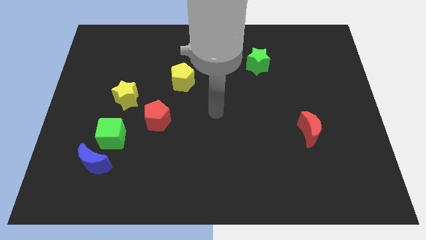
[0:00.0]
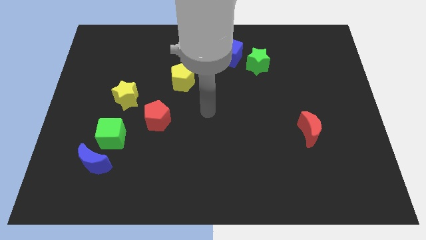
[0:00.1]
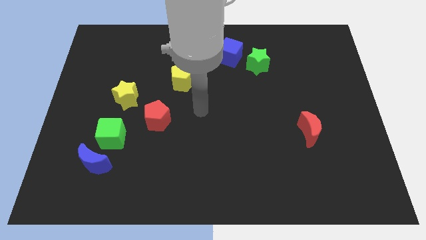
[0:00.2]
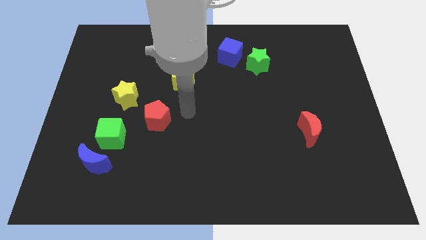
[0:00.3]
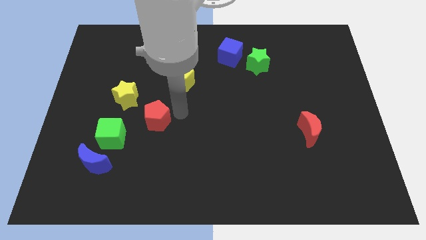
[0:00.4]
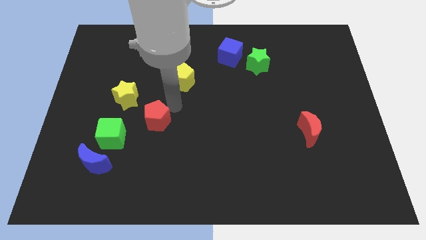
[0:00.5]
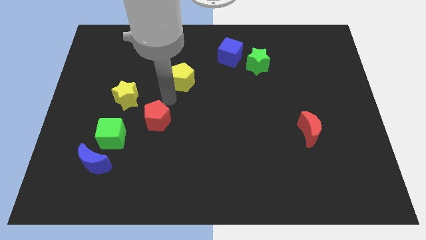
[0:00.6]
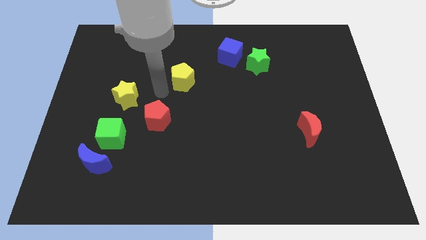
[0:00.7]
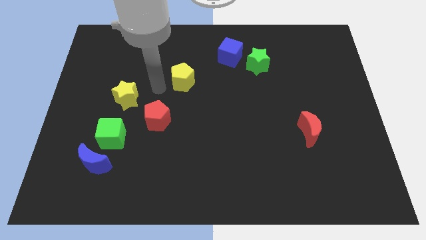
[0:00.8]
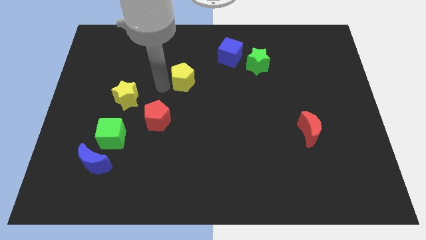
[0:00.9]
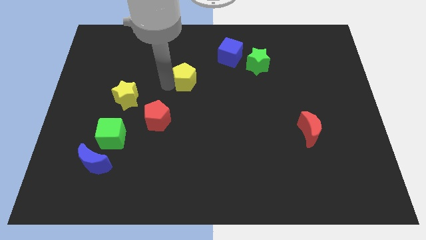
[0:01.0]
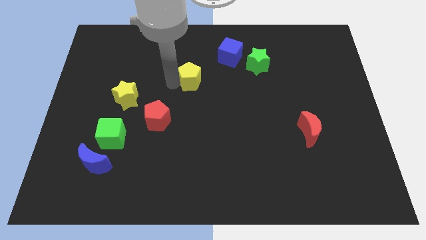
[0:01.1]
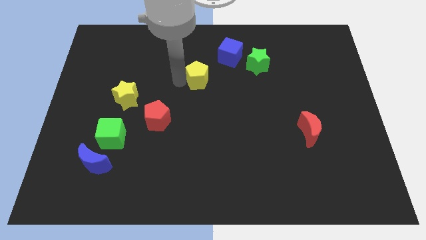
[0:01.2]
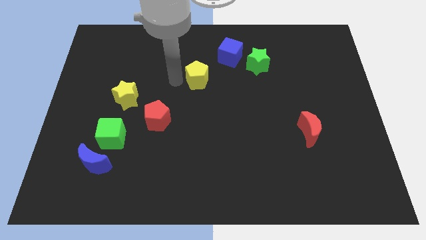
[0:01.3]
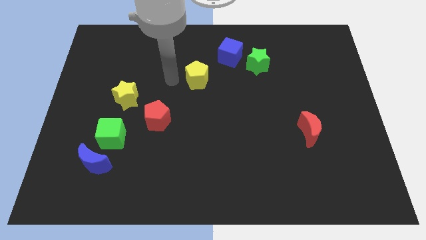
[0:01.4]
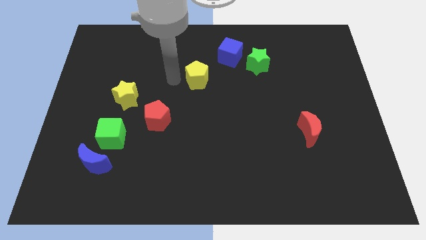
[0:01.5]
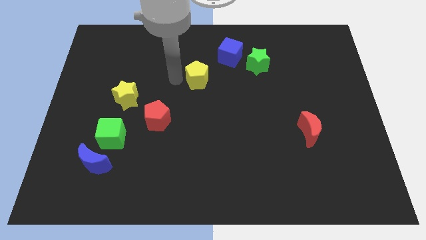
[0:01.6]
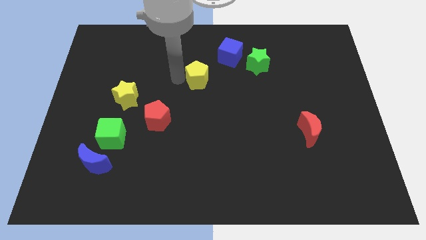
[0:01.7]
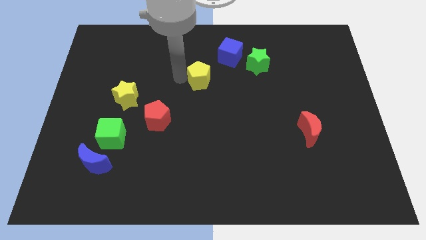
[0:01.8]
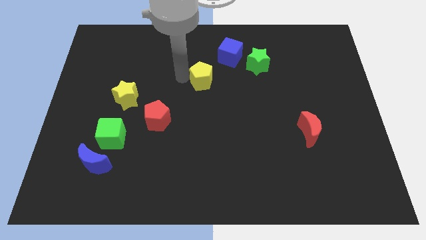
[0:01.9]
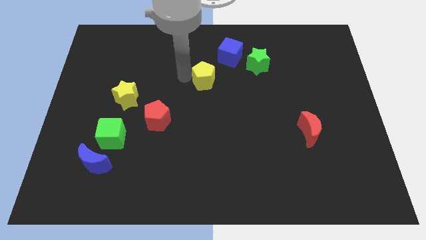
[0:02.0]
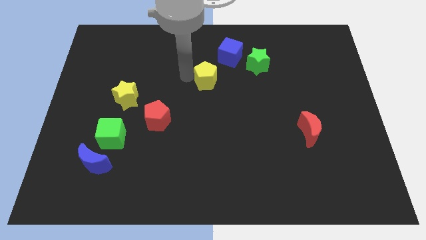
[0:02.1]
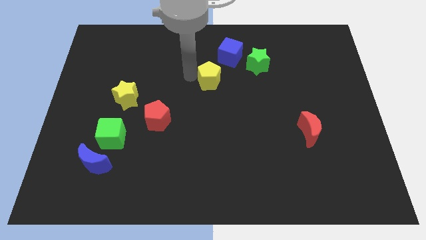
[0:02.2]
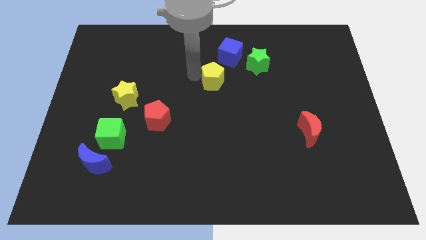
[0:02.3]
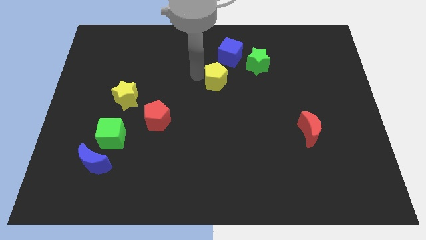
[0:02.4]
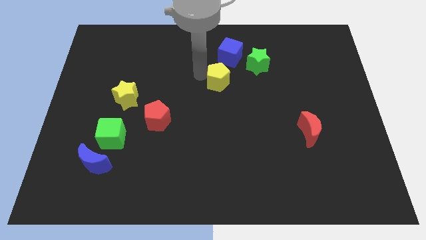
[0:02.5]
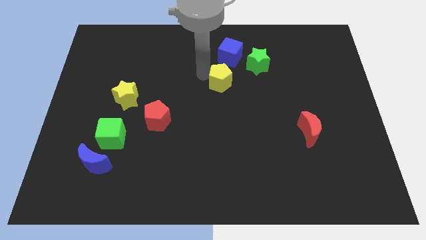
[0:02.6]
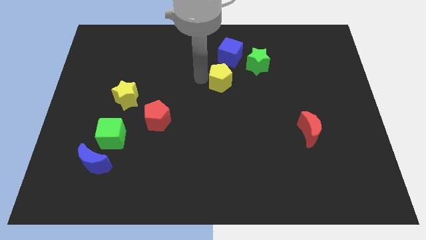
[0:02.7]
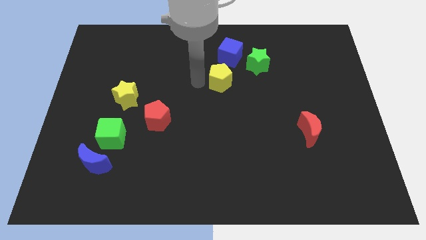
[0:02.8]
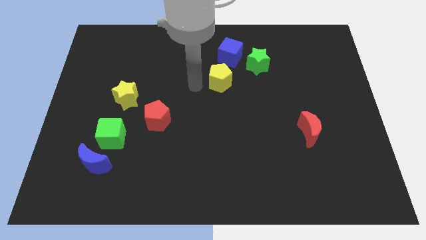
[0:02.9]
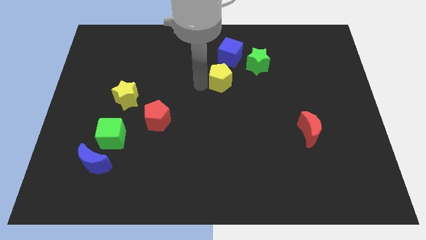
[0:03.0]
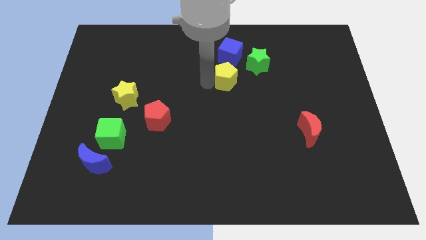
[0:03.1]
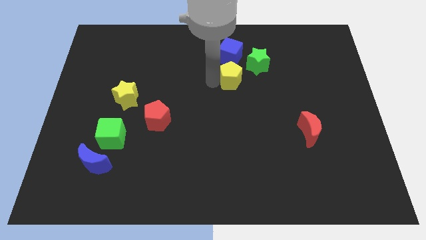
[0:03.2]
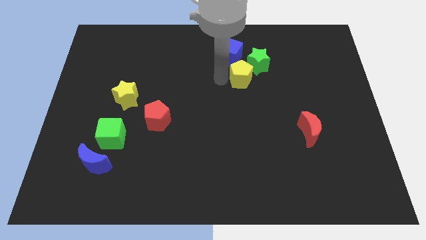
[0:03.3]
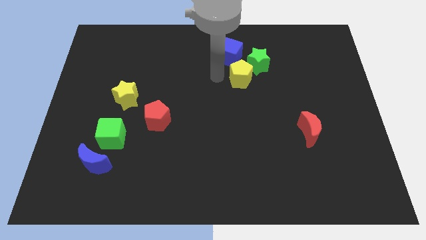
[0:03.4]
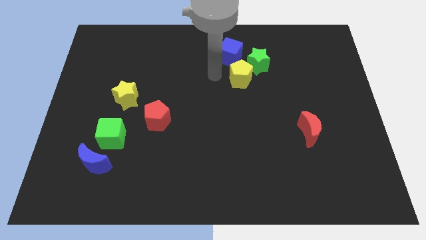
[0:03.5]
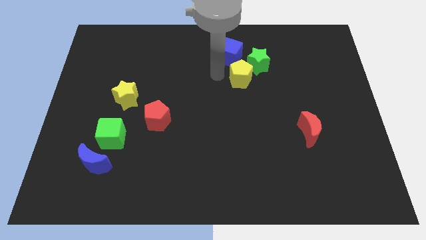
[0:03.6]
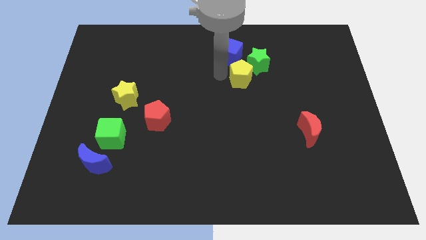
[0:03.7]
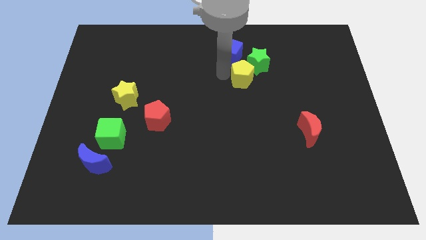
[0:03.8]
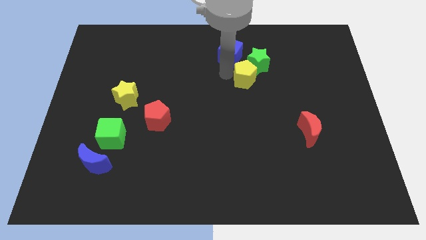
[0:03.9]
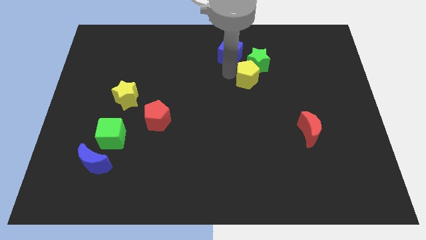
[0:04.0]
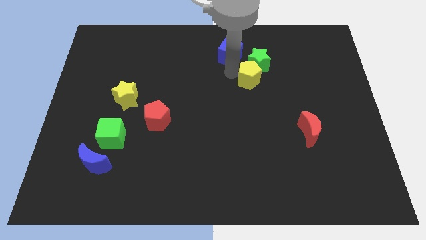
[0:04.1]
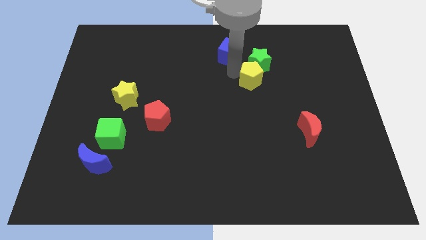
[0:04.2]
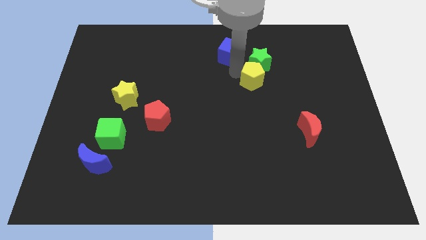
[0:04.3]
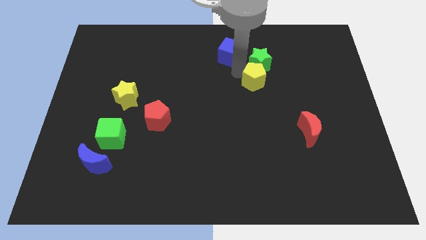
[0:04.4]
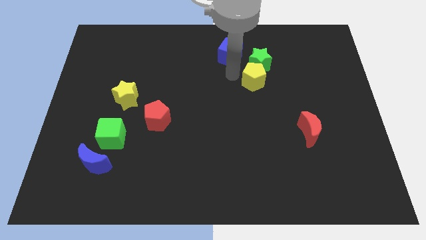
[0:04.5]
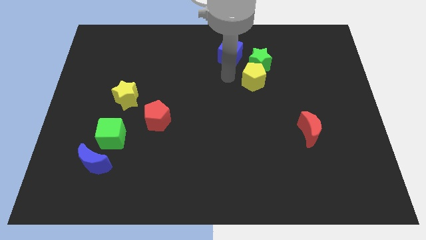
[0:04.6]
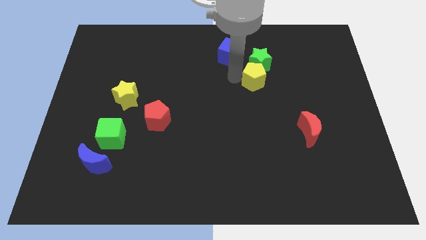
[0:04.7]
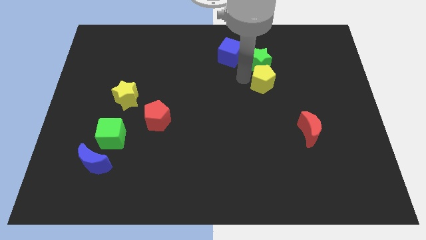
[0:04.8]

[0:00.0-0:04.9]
slide the yellow pentagon right

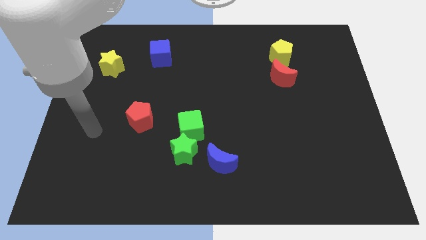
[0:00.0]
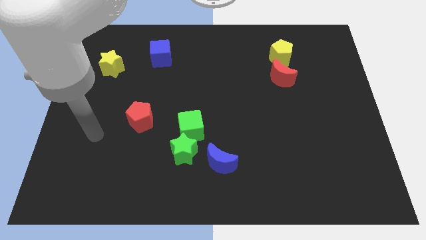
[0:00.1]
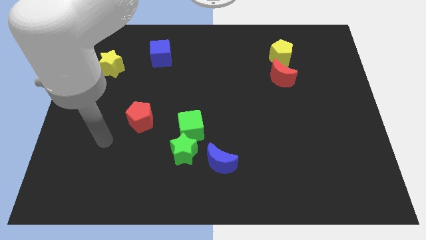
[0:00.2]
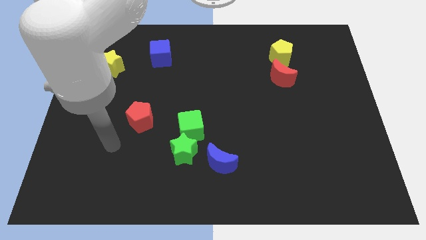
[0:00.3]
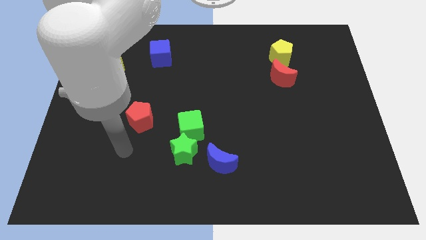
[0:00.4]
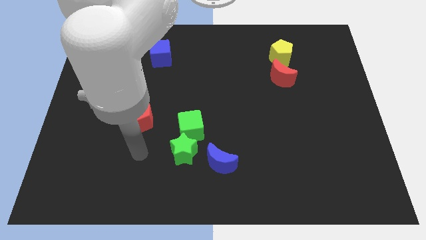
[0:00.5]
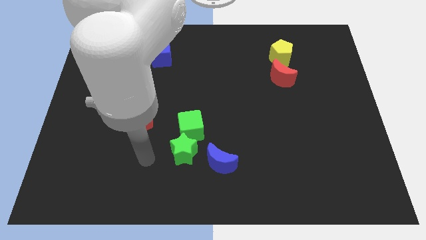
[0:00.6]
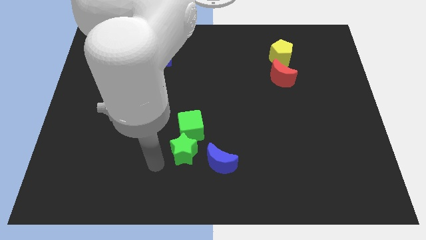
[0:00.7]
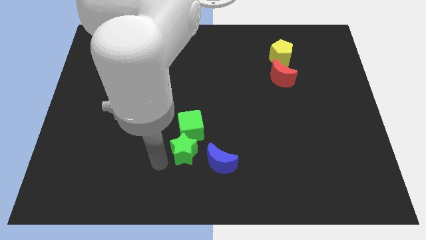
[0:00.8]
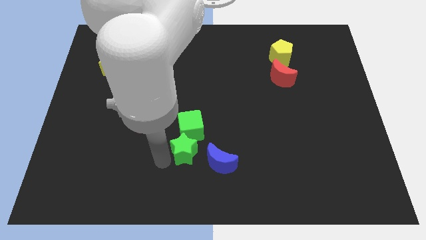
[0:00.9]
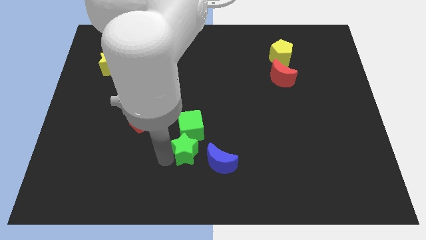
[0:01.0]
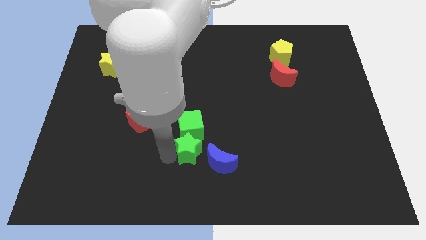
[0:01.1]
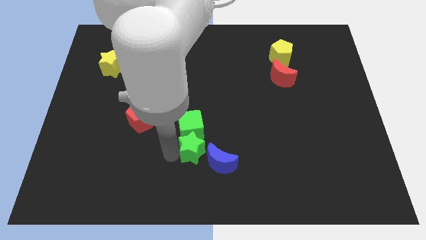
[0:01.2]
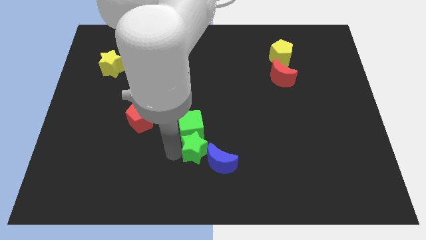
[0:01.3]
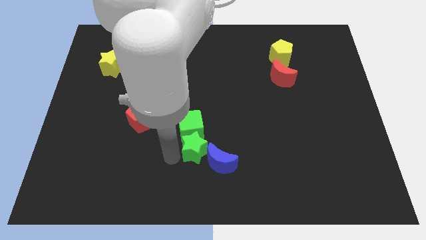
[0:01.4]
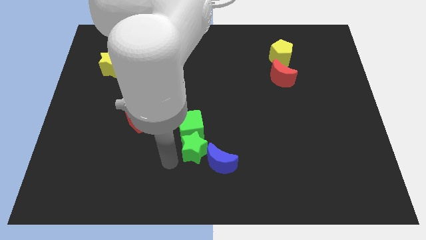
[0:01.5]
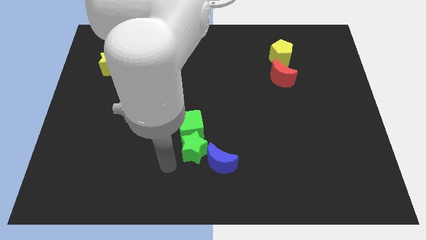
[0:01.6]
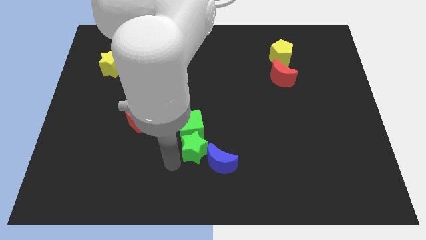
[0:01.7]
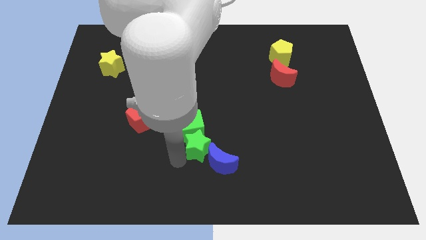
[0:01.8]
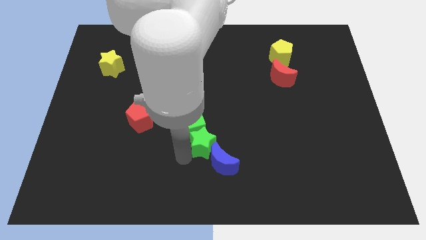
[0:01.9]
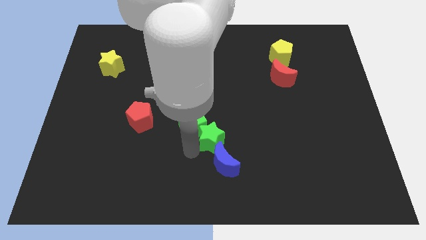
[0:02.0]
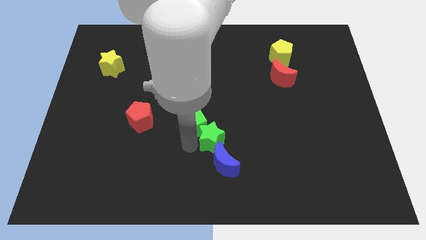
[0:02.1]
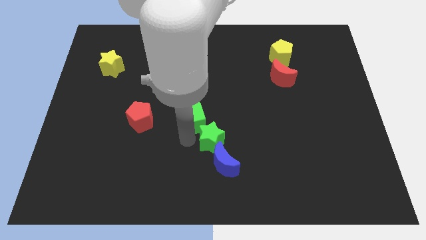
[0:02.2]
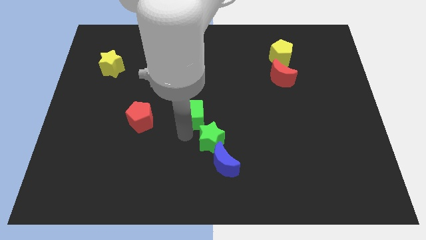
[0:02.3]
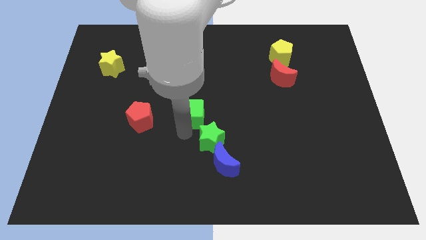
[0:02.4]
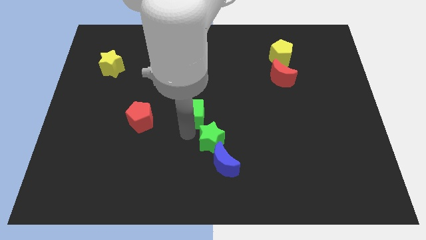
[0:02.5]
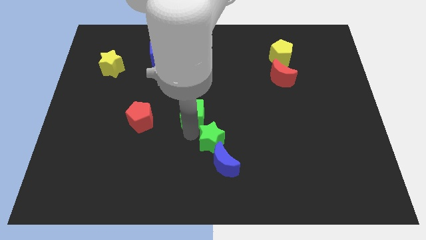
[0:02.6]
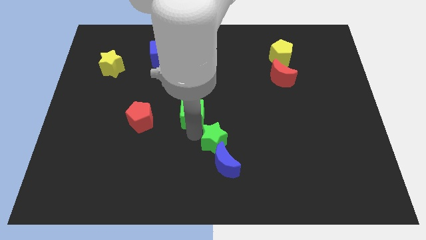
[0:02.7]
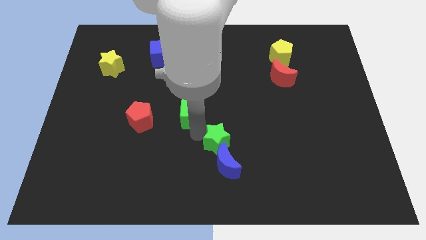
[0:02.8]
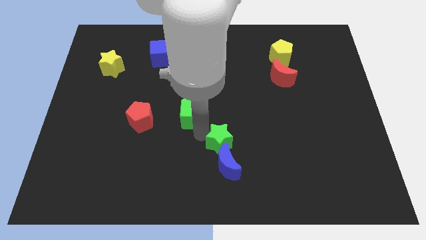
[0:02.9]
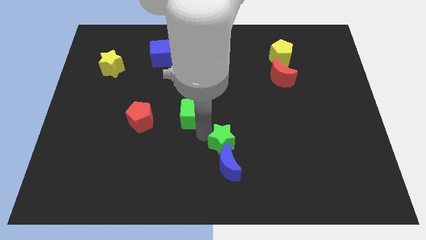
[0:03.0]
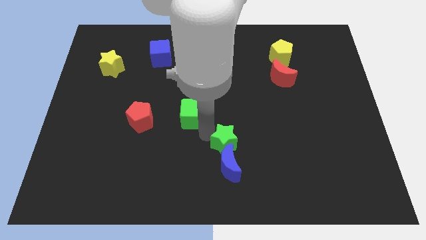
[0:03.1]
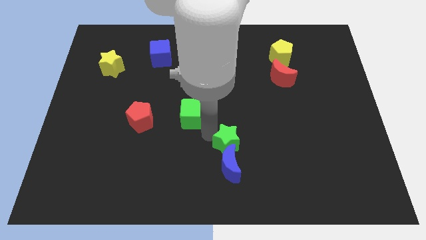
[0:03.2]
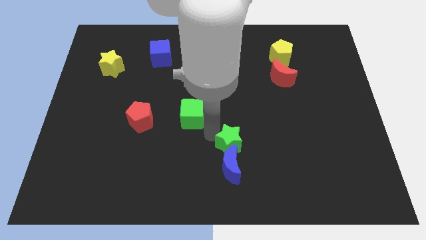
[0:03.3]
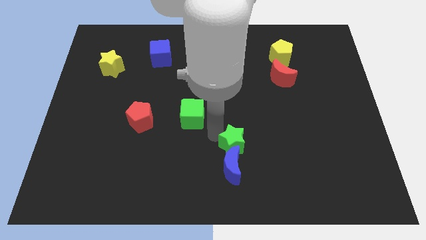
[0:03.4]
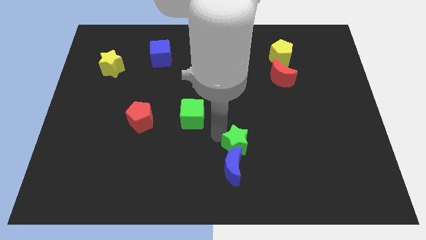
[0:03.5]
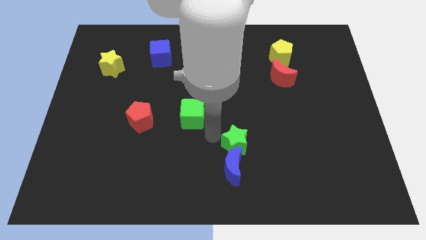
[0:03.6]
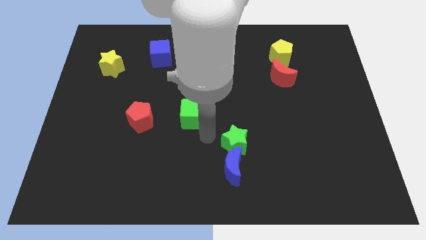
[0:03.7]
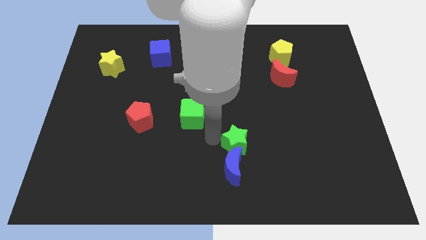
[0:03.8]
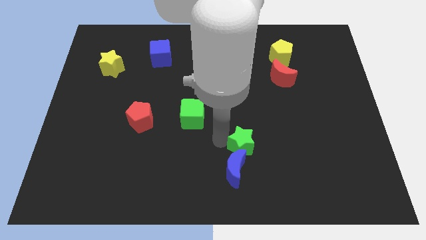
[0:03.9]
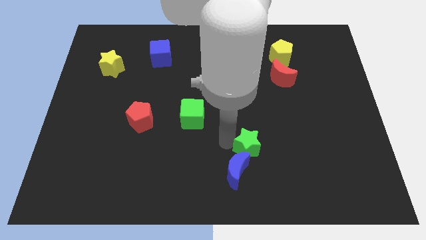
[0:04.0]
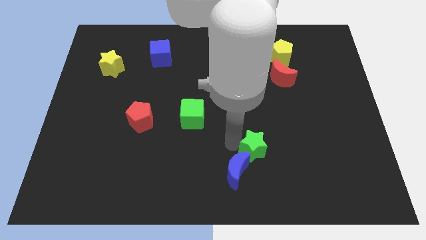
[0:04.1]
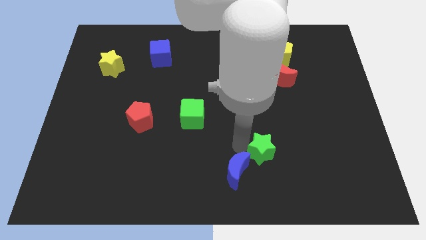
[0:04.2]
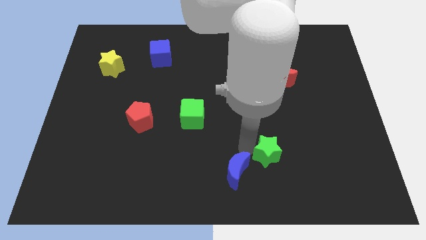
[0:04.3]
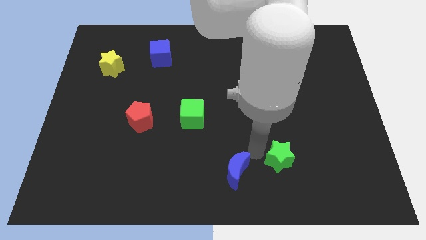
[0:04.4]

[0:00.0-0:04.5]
push the green star to the right
